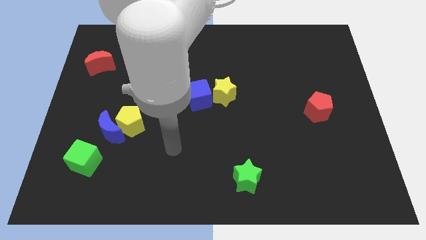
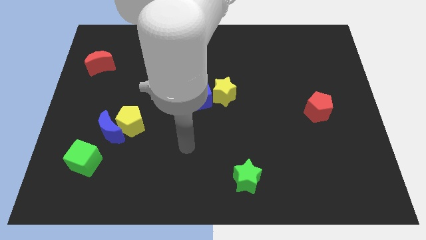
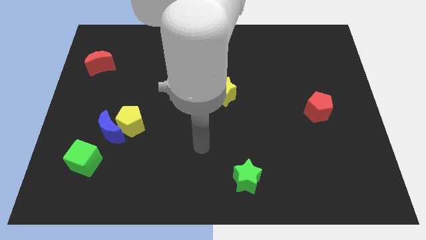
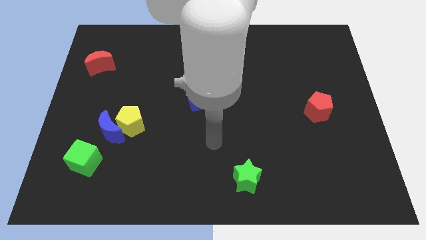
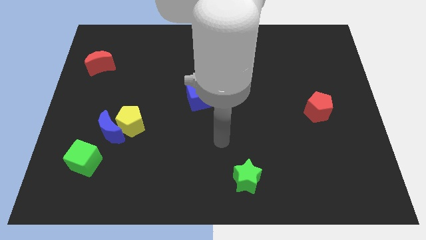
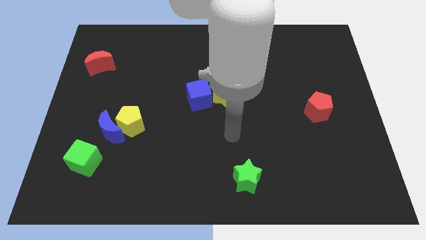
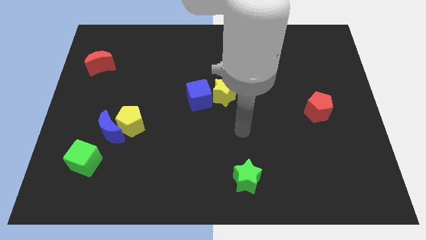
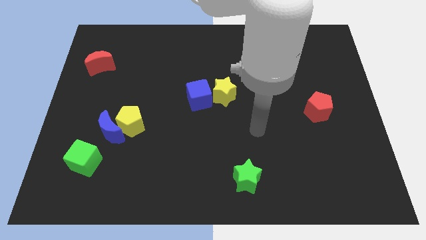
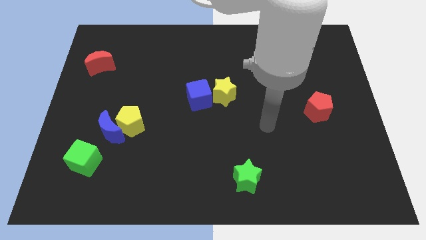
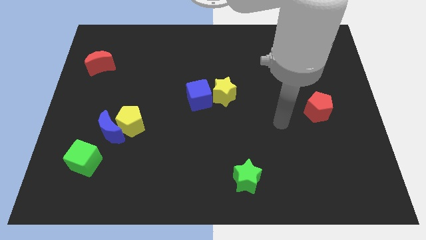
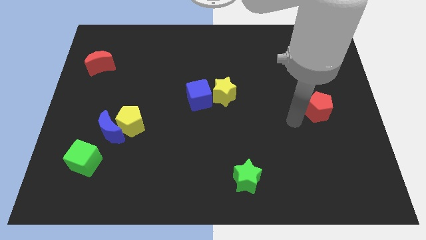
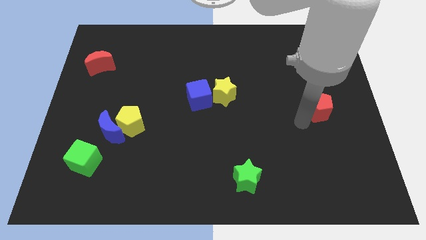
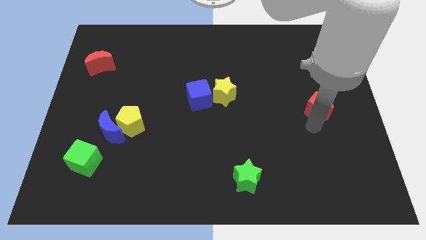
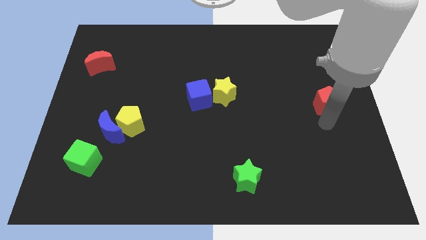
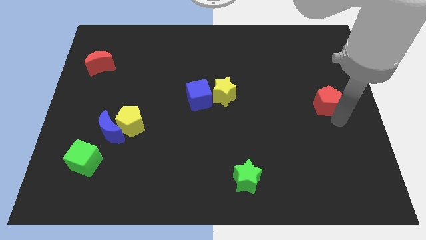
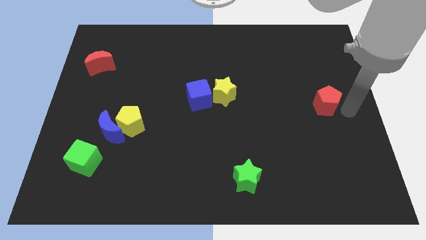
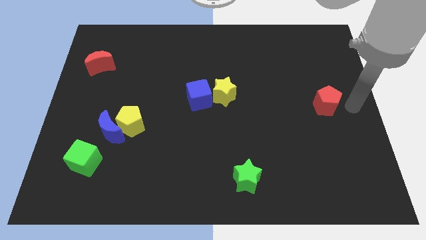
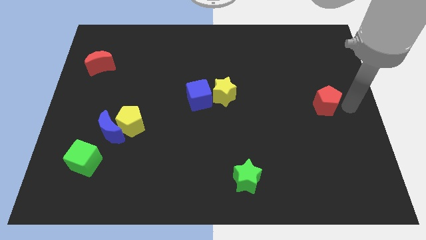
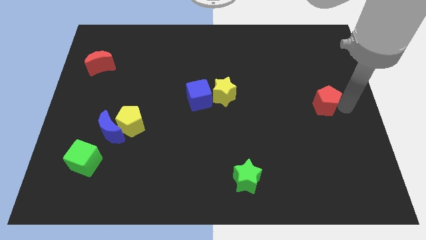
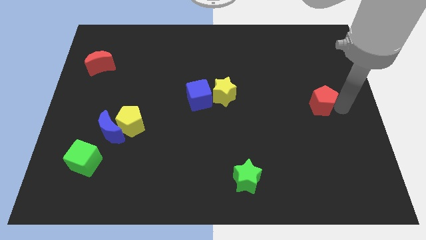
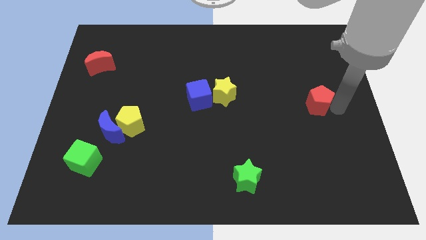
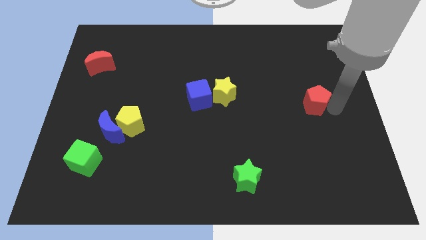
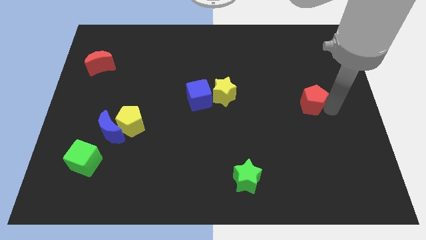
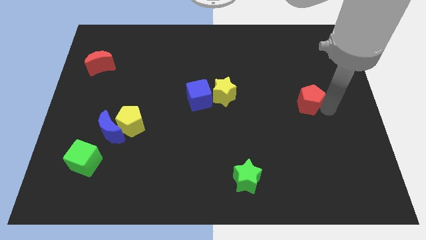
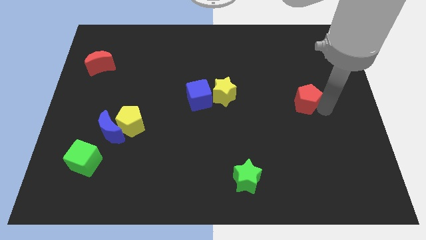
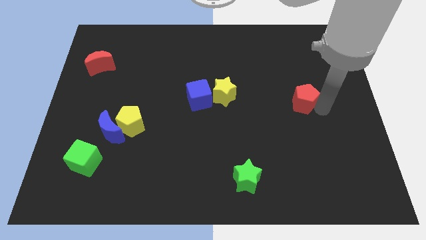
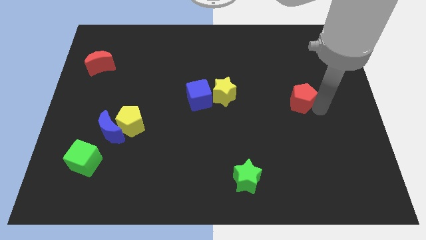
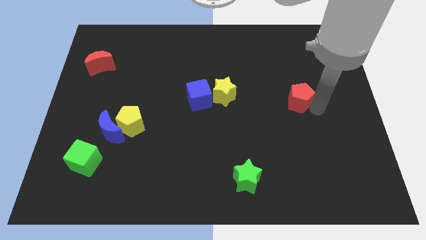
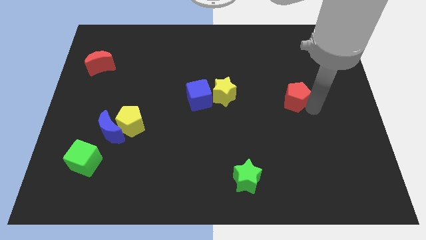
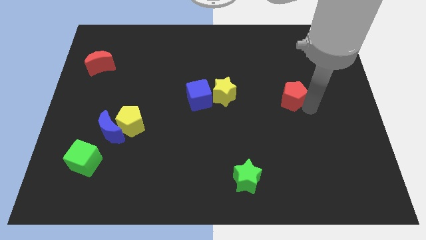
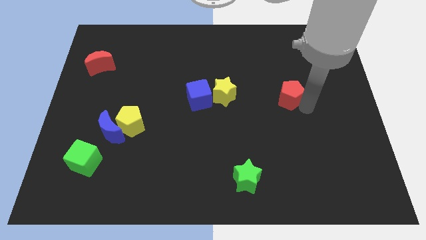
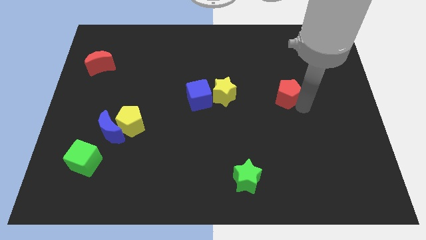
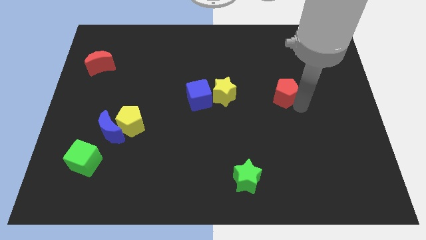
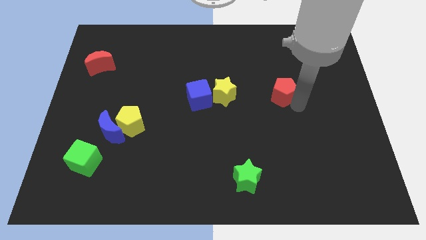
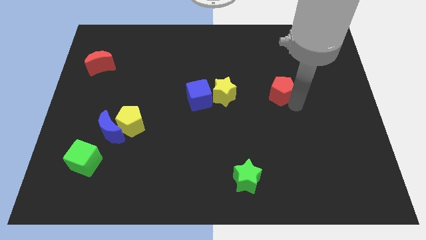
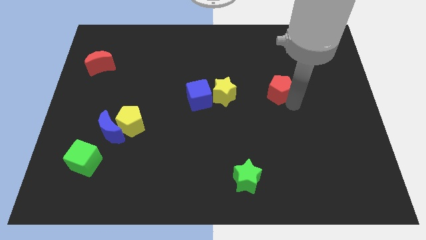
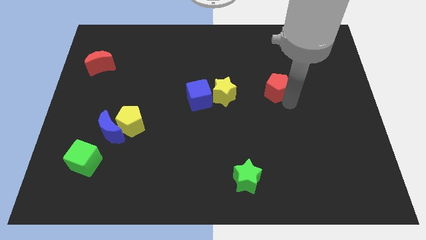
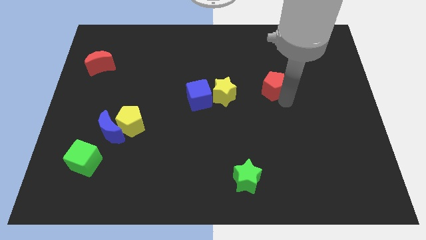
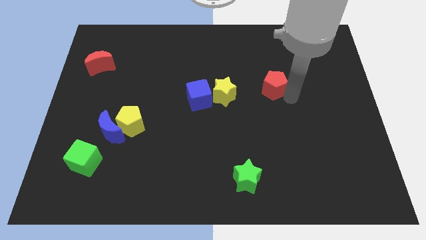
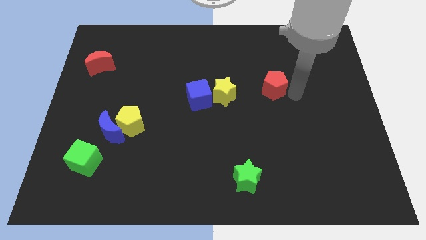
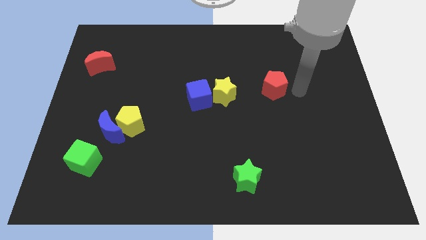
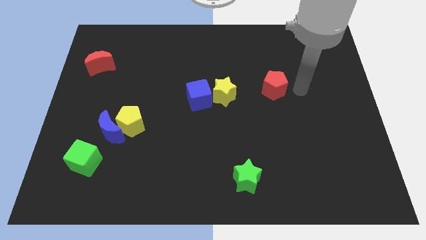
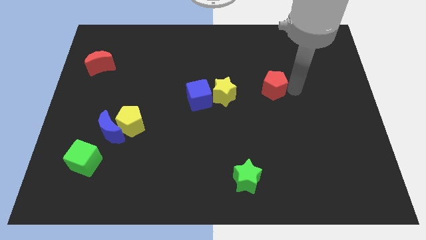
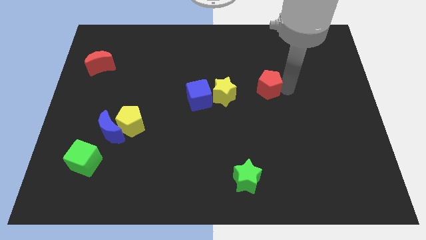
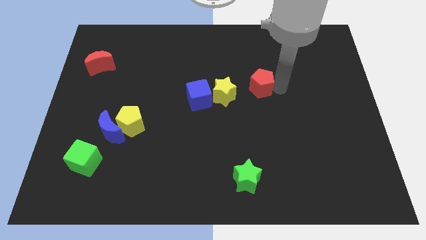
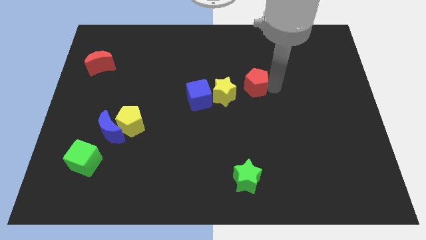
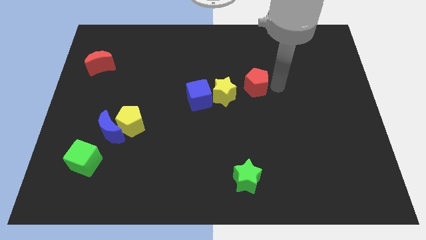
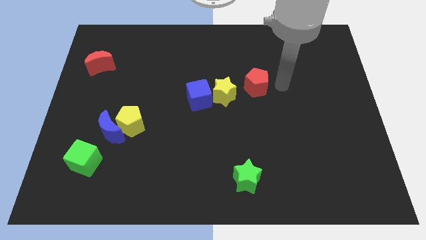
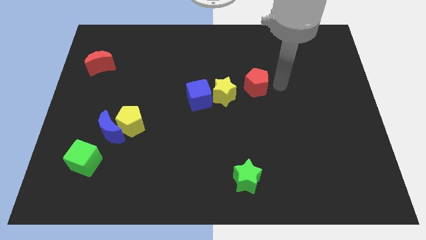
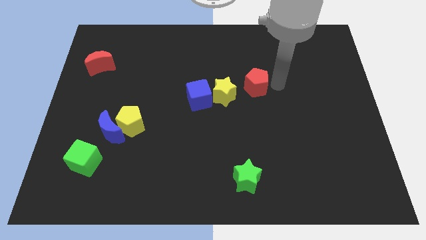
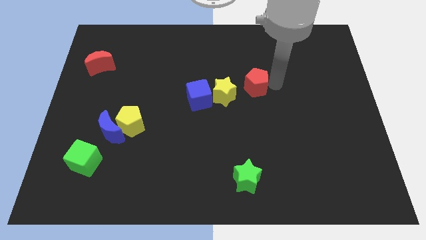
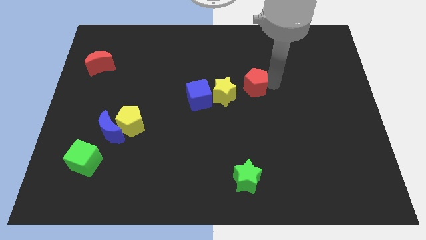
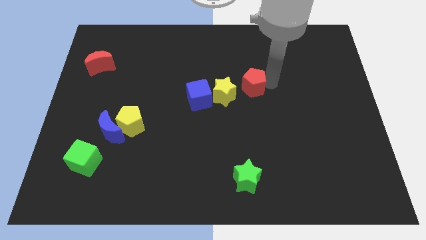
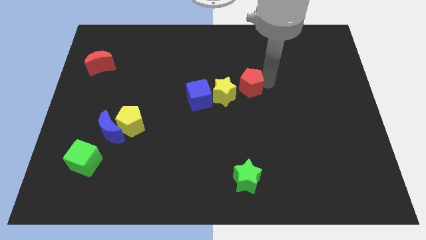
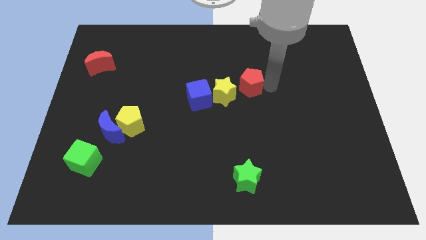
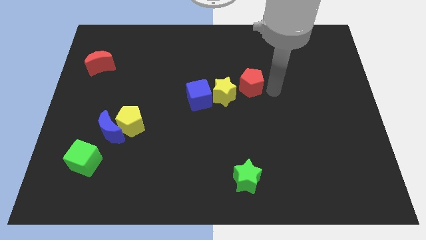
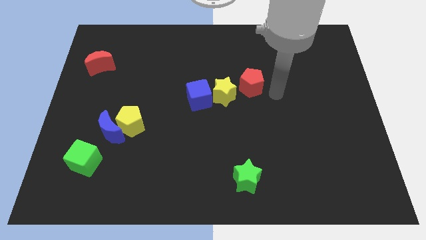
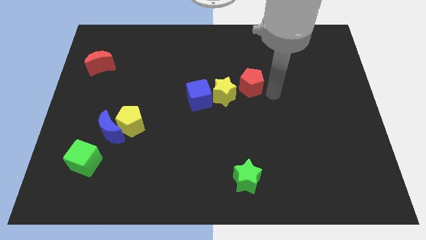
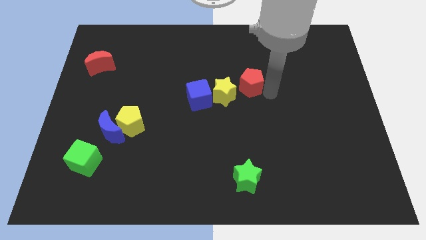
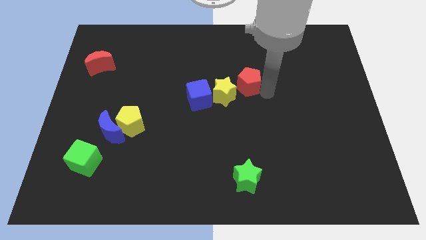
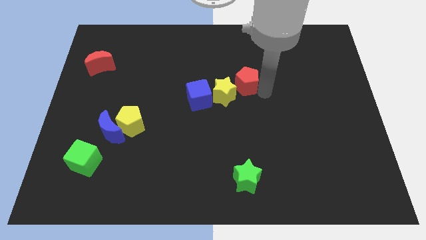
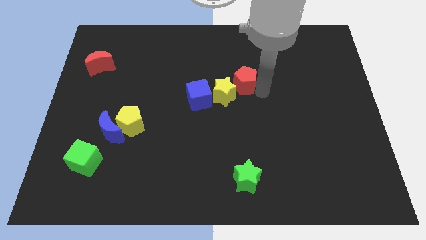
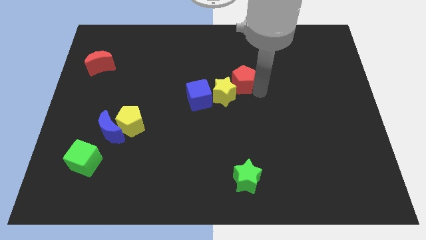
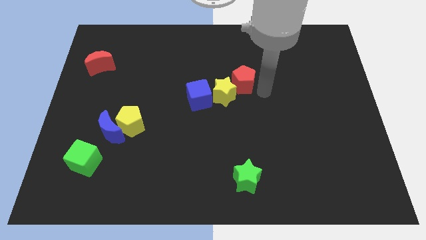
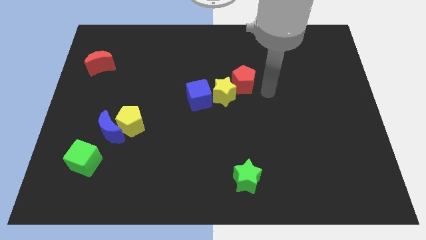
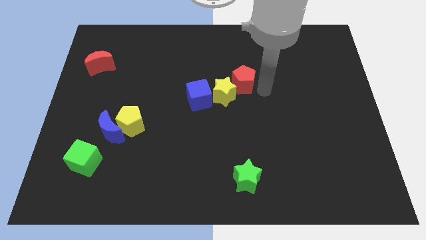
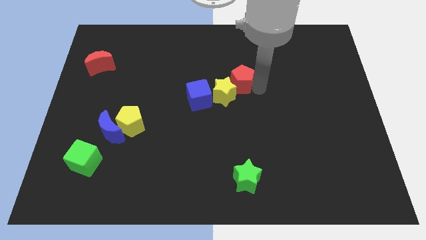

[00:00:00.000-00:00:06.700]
move the red pentagon above the yellow star

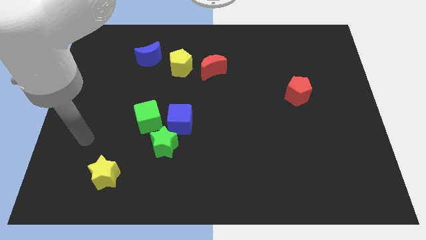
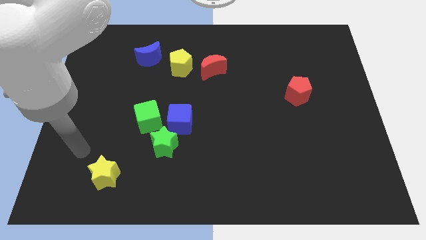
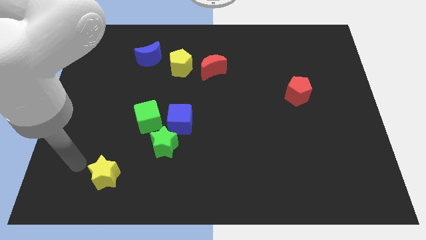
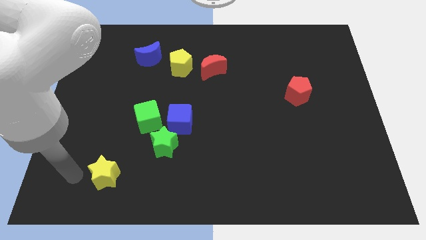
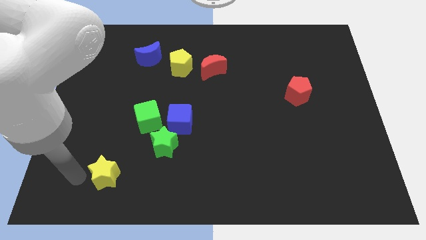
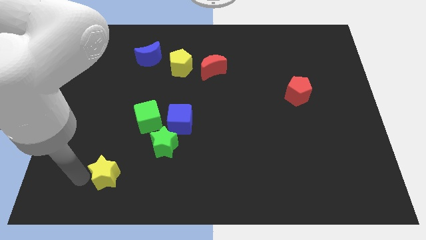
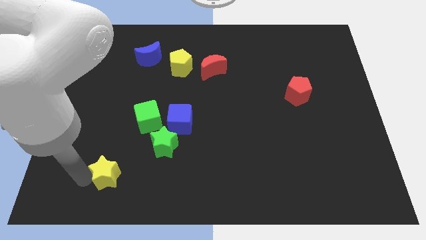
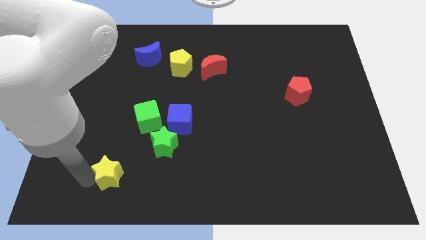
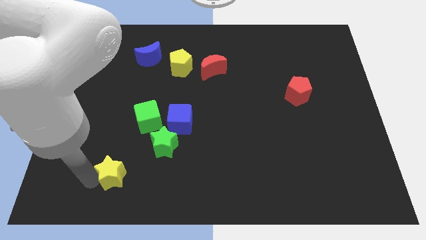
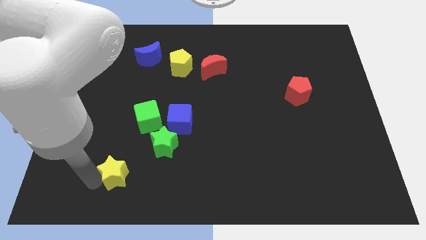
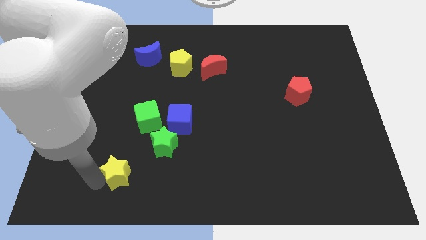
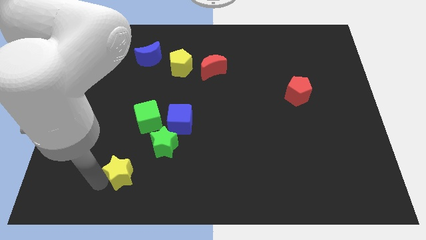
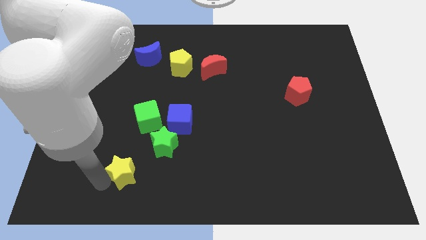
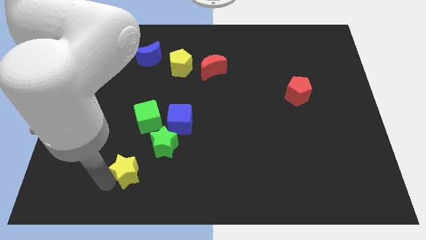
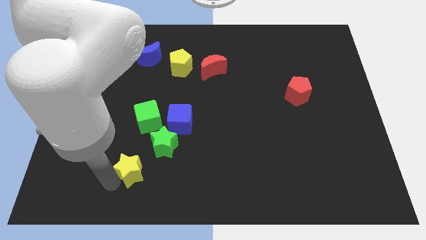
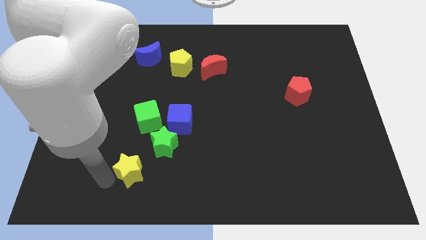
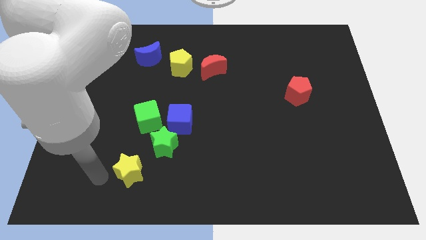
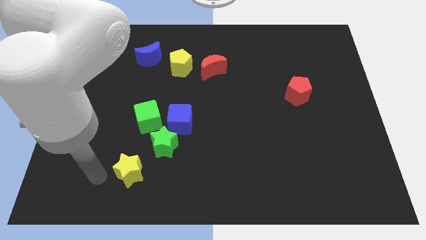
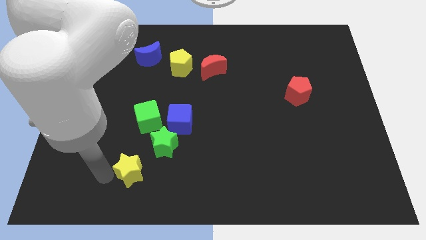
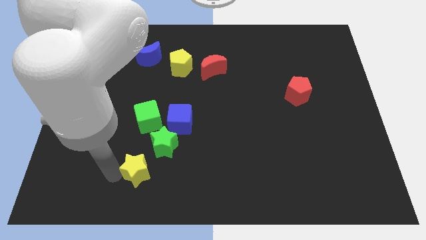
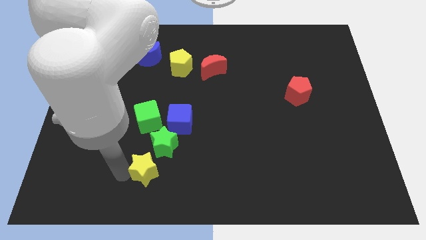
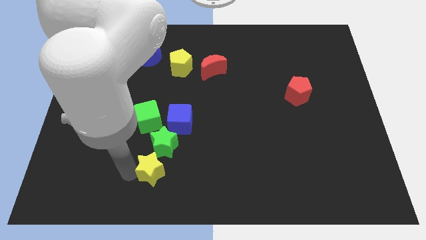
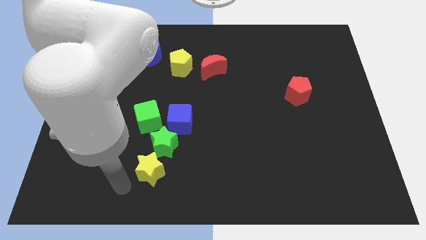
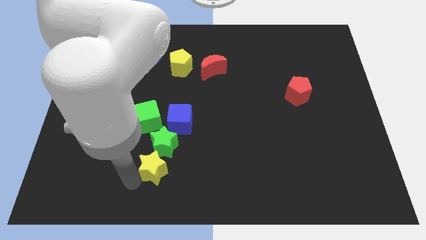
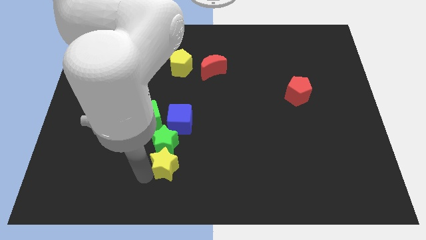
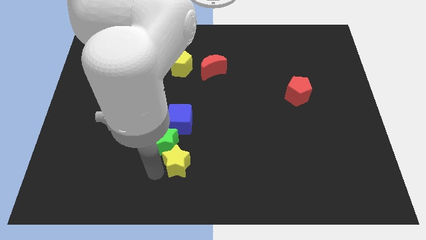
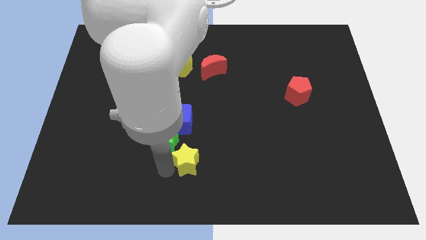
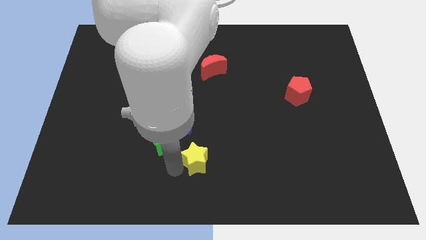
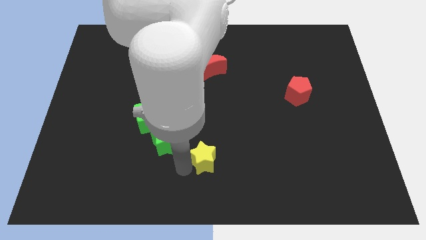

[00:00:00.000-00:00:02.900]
slide the yellow star to the bottom right side of the blue cube
